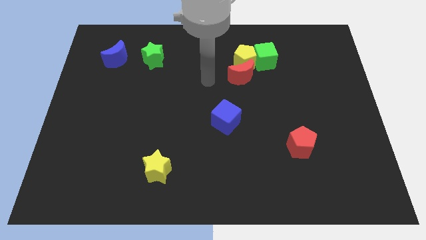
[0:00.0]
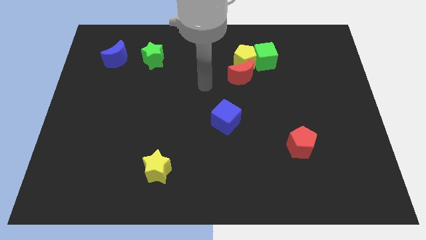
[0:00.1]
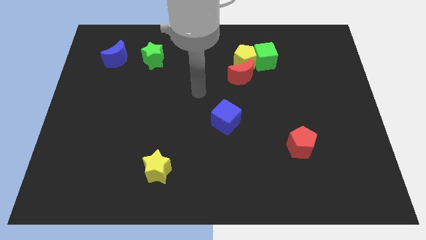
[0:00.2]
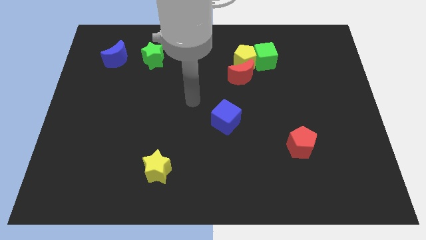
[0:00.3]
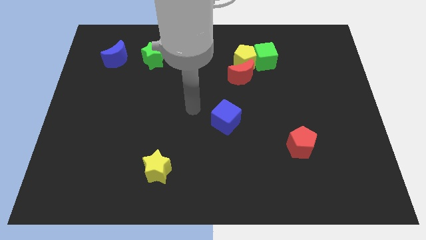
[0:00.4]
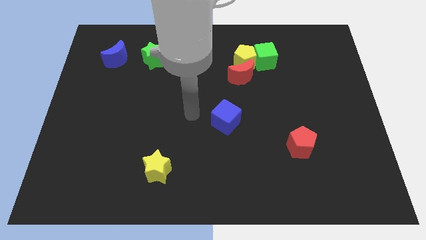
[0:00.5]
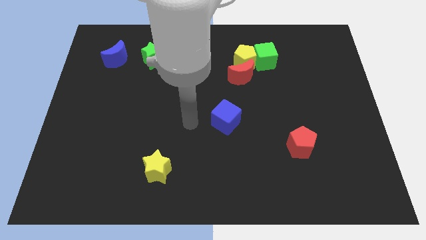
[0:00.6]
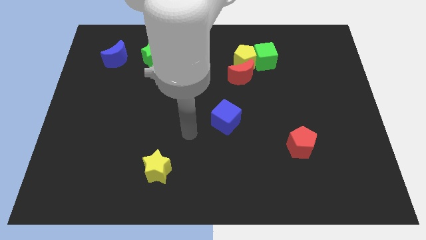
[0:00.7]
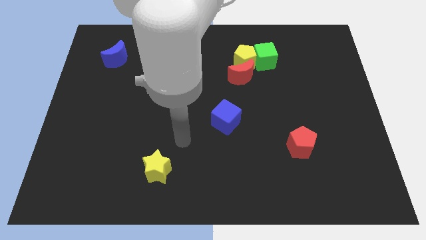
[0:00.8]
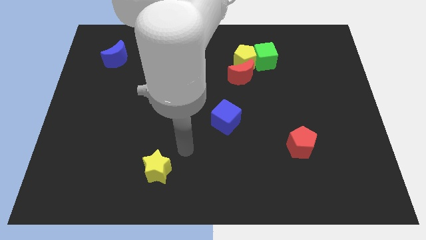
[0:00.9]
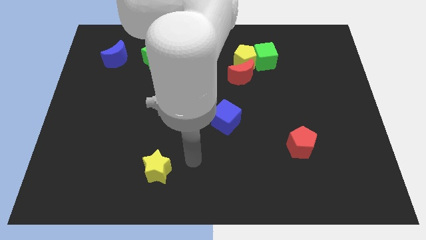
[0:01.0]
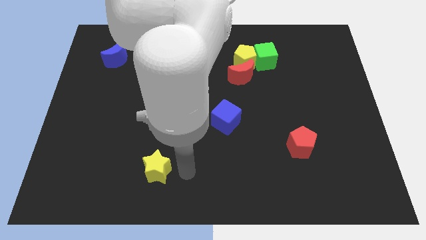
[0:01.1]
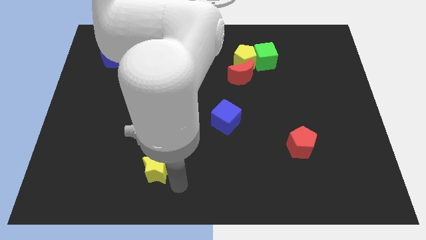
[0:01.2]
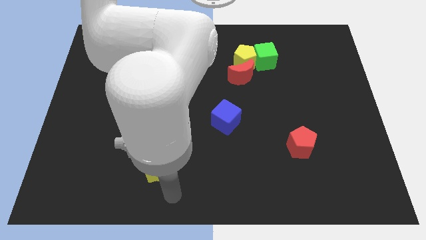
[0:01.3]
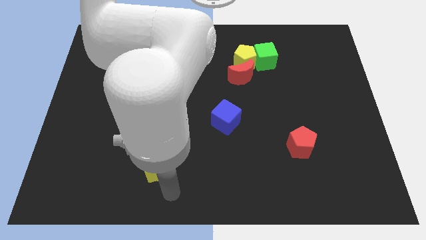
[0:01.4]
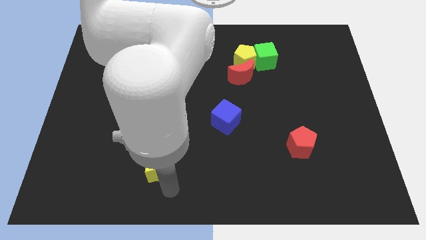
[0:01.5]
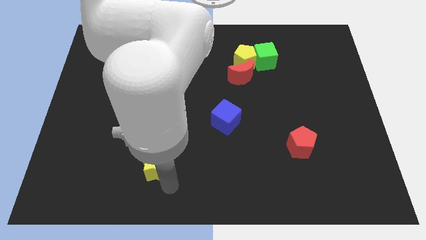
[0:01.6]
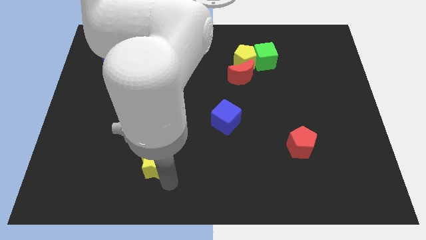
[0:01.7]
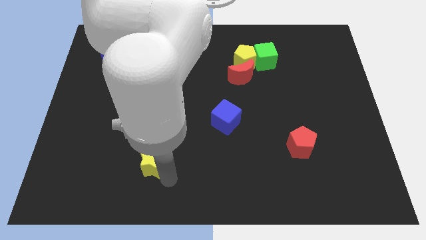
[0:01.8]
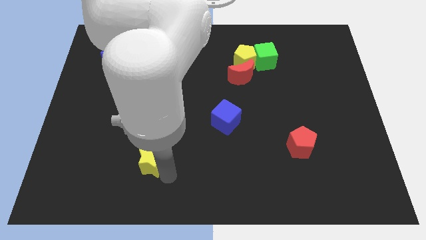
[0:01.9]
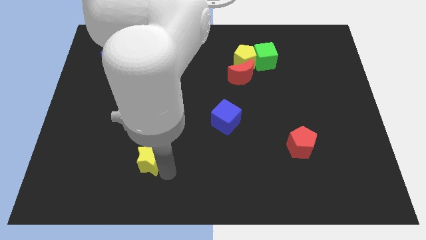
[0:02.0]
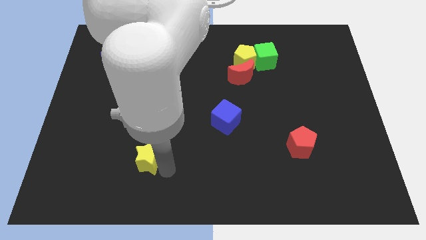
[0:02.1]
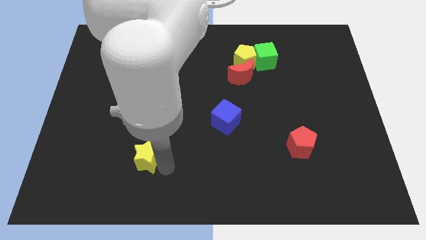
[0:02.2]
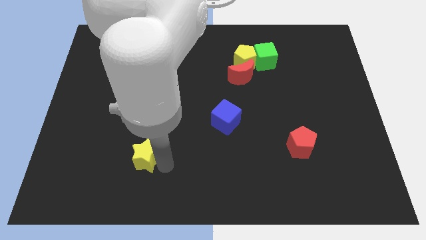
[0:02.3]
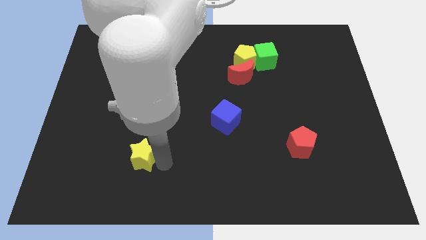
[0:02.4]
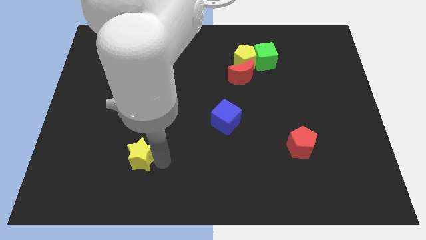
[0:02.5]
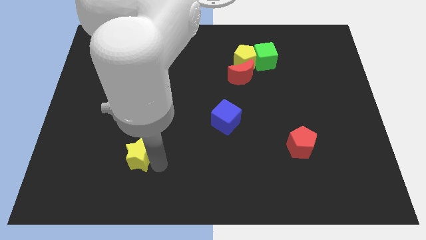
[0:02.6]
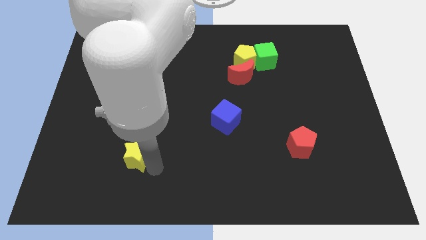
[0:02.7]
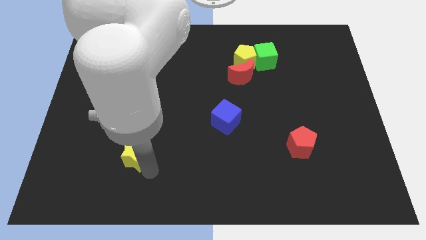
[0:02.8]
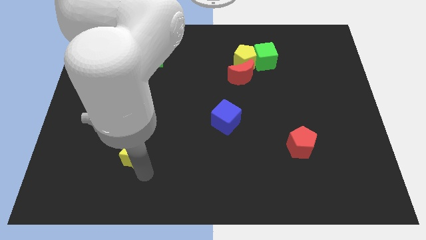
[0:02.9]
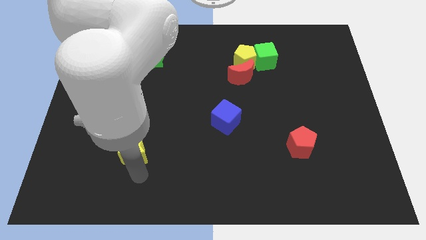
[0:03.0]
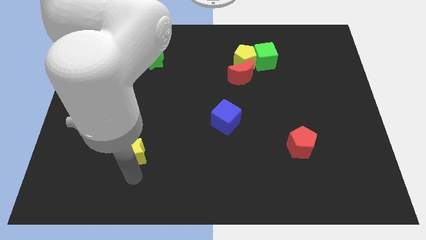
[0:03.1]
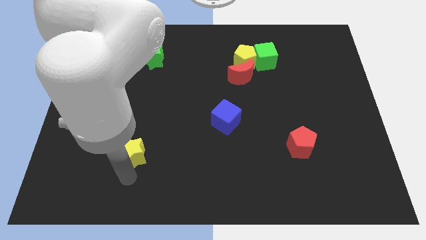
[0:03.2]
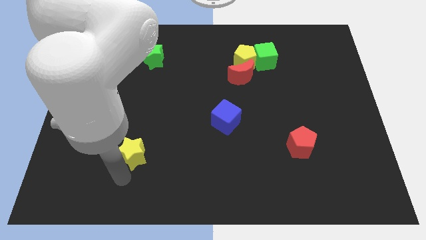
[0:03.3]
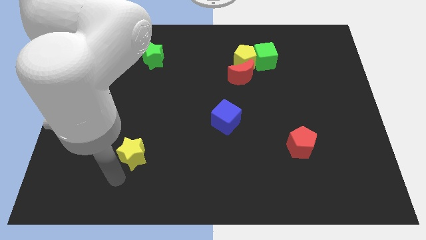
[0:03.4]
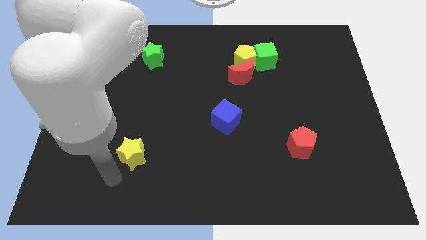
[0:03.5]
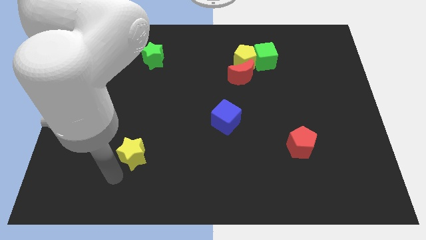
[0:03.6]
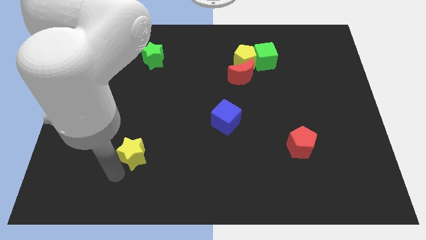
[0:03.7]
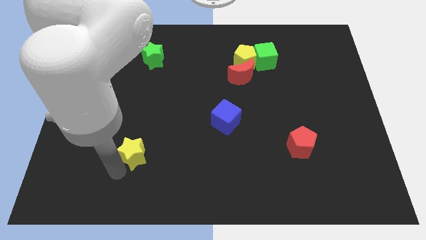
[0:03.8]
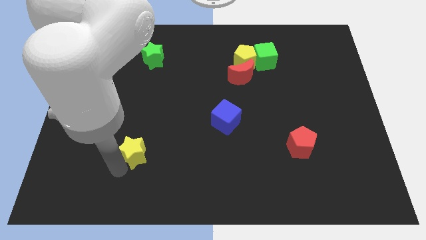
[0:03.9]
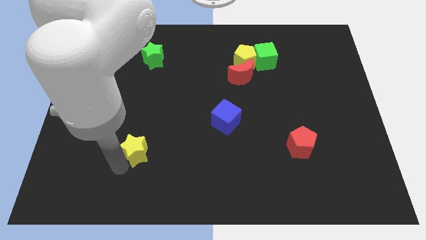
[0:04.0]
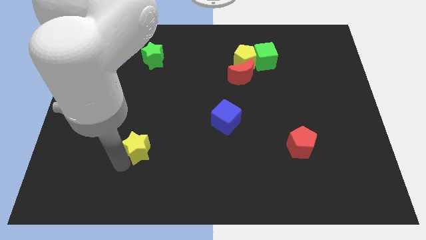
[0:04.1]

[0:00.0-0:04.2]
slightly slide the yellow star upwards and left

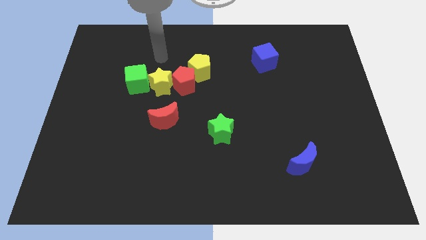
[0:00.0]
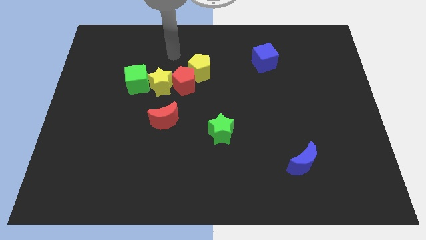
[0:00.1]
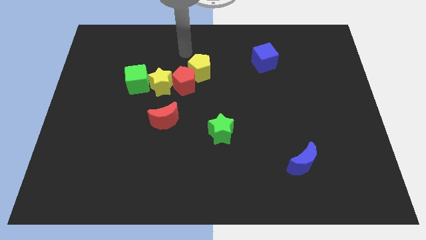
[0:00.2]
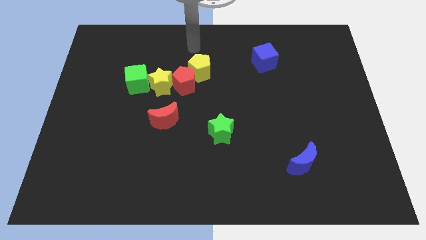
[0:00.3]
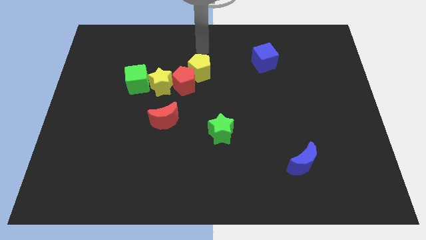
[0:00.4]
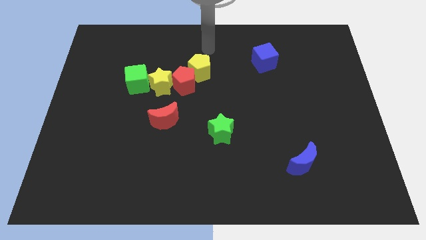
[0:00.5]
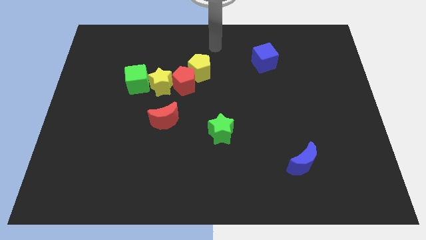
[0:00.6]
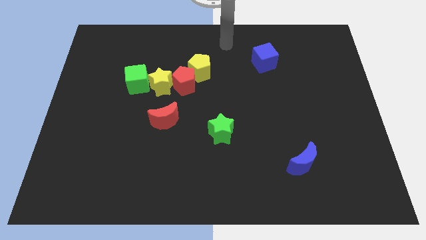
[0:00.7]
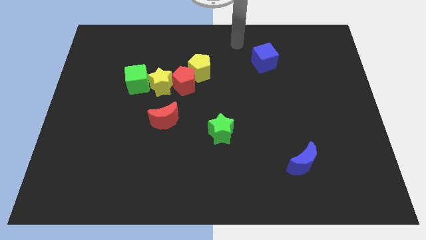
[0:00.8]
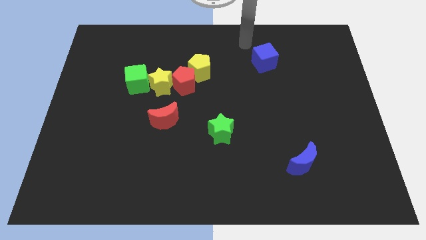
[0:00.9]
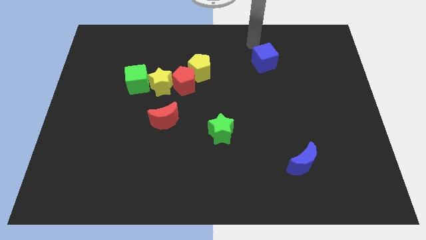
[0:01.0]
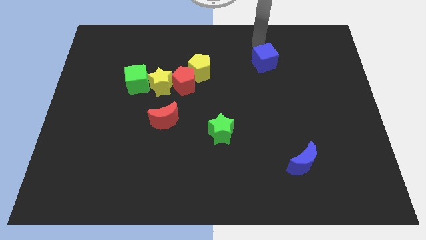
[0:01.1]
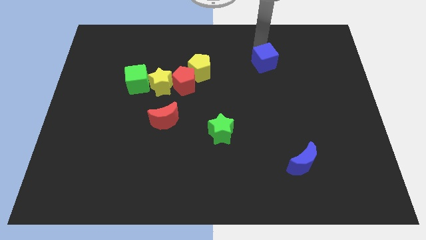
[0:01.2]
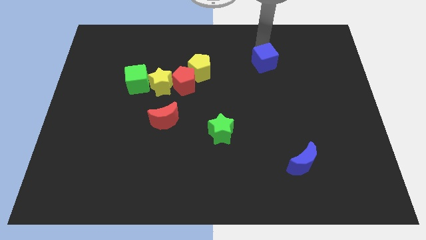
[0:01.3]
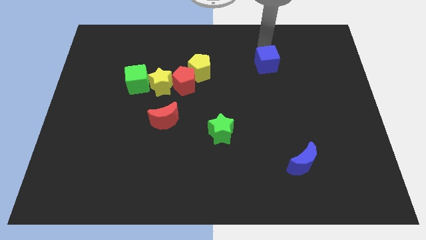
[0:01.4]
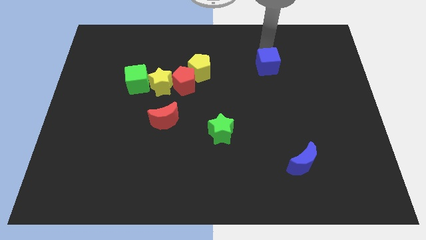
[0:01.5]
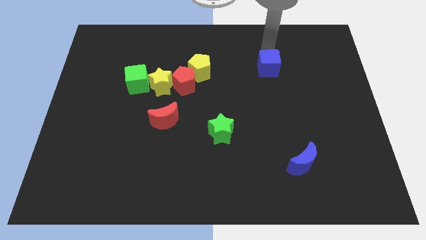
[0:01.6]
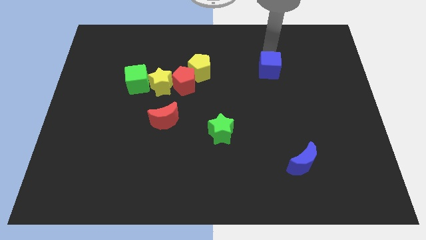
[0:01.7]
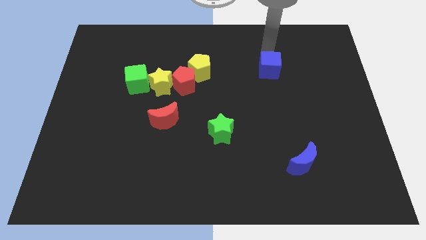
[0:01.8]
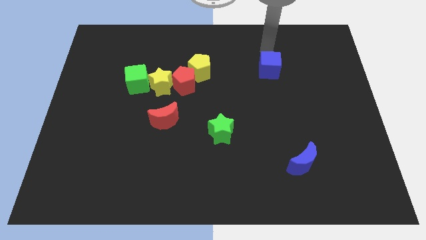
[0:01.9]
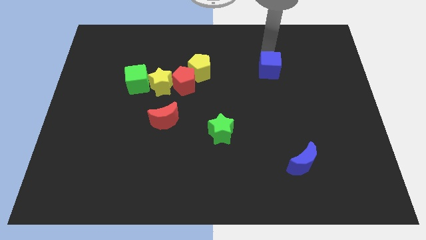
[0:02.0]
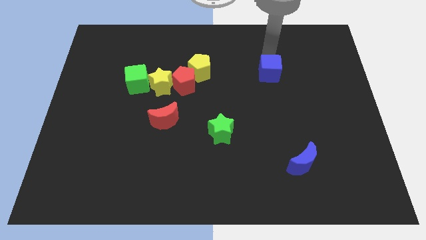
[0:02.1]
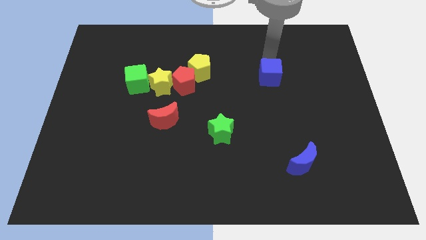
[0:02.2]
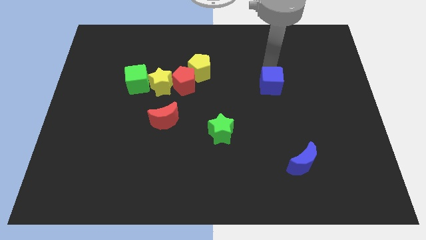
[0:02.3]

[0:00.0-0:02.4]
slide the blue cube downwards somewhat

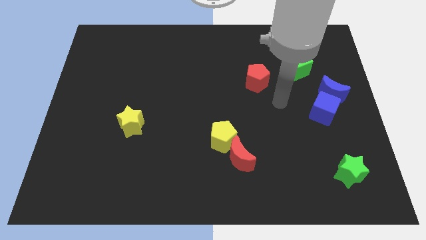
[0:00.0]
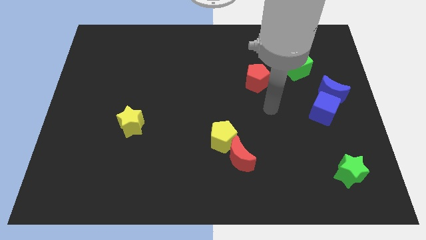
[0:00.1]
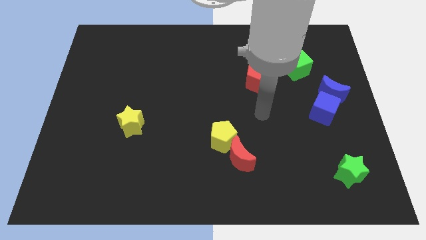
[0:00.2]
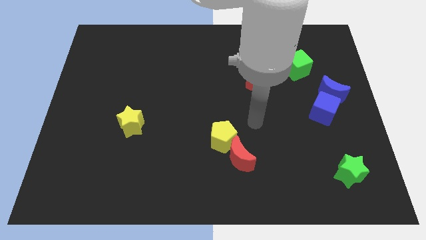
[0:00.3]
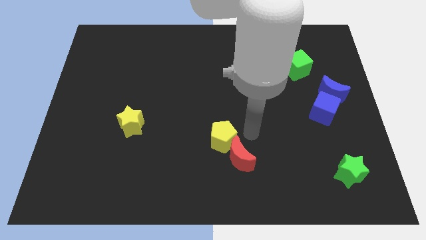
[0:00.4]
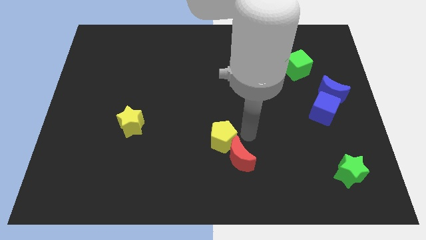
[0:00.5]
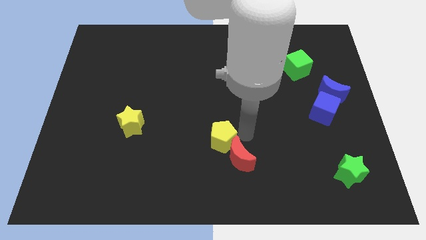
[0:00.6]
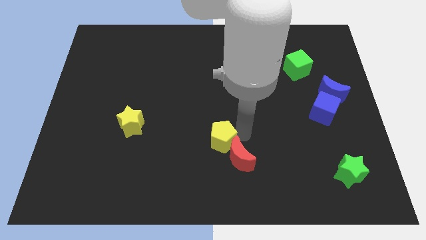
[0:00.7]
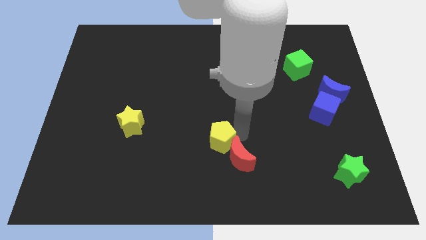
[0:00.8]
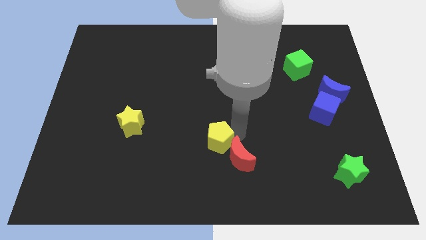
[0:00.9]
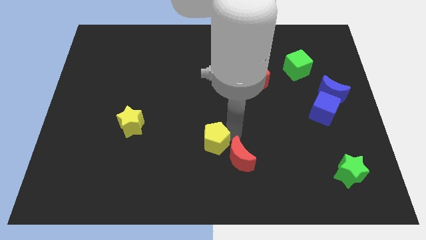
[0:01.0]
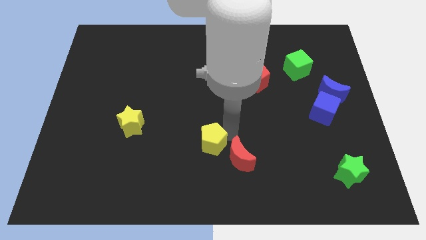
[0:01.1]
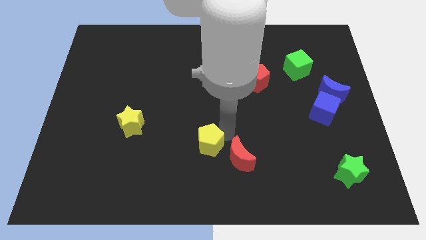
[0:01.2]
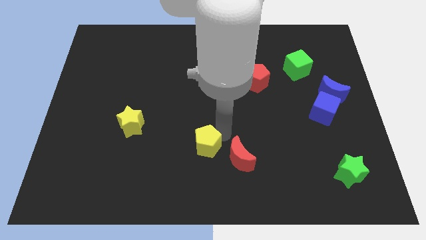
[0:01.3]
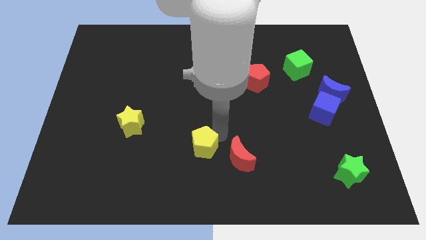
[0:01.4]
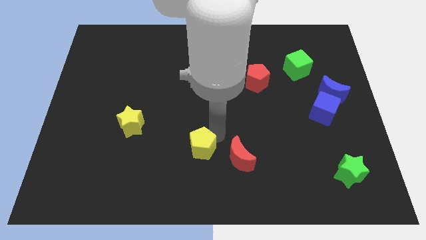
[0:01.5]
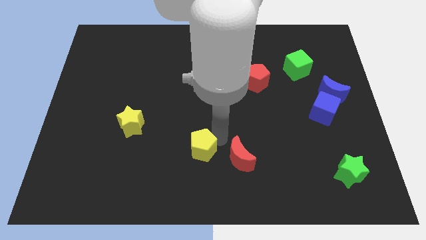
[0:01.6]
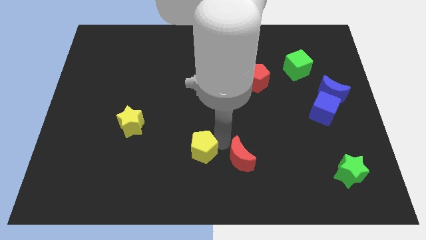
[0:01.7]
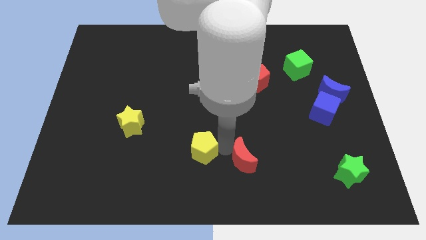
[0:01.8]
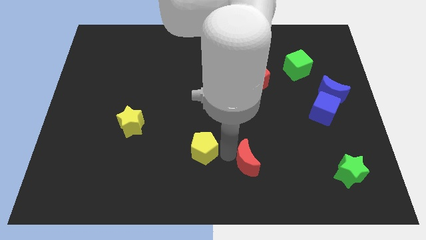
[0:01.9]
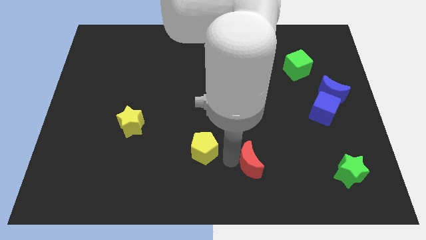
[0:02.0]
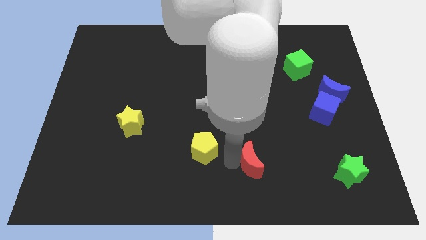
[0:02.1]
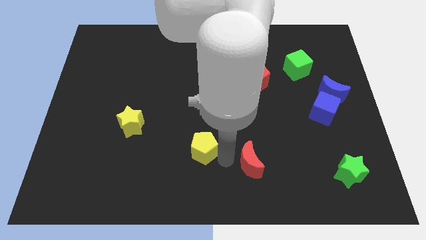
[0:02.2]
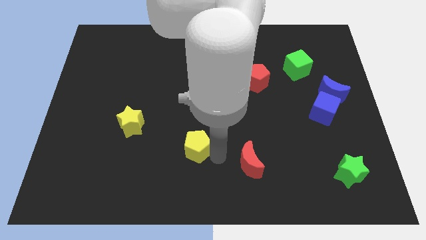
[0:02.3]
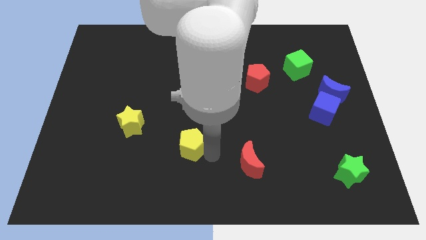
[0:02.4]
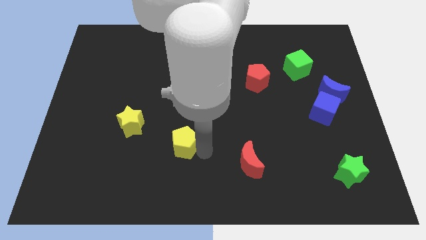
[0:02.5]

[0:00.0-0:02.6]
push the yellow pentagon left slightly
